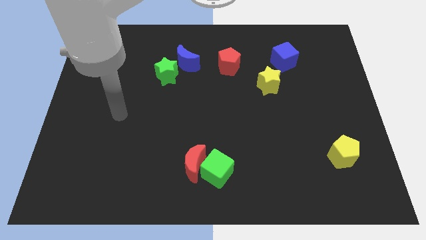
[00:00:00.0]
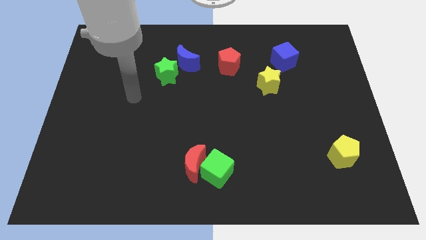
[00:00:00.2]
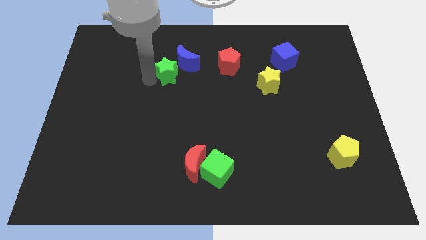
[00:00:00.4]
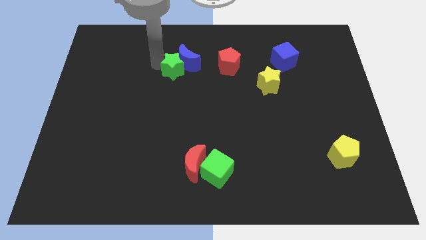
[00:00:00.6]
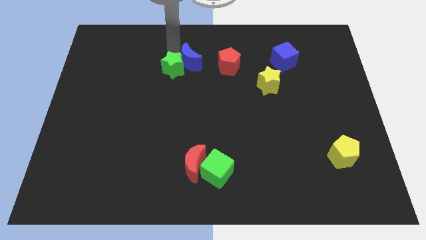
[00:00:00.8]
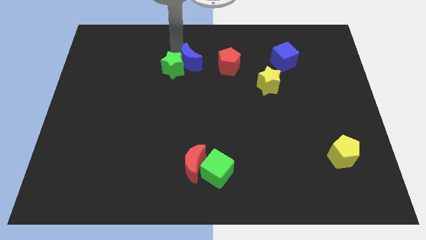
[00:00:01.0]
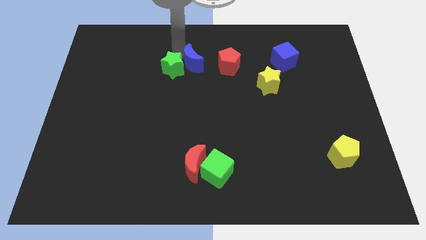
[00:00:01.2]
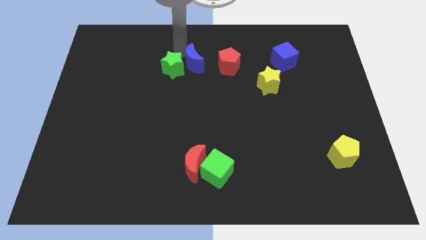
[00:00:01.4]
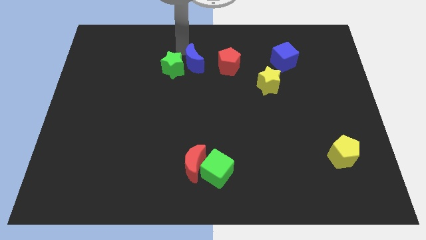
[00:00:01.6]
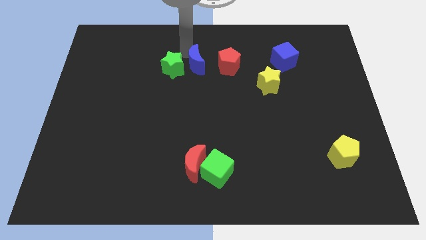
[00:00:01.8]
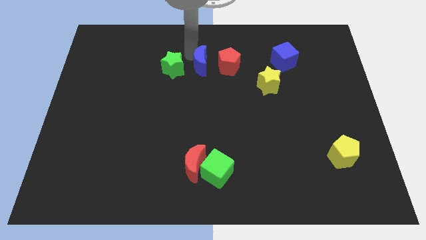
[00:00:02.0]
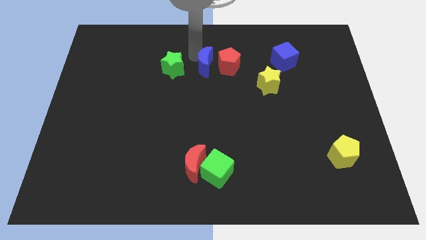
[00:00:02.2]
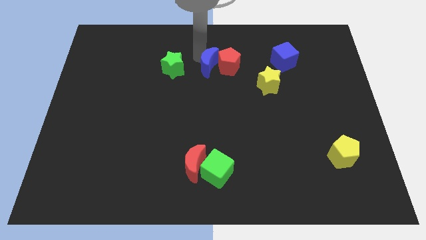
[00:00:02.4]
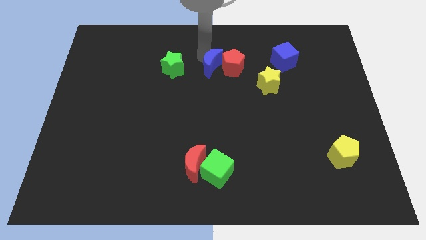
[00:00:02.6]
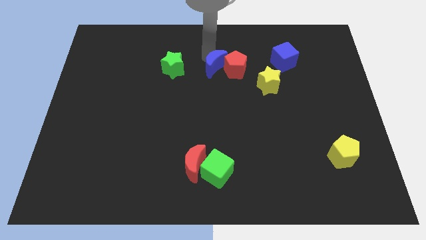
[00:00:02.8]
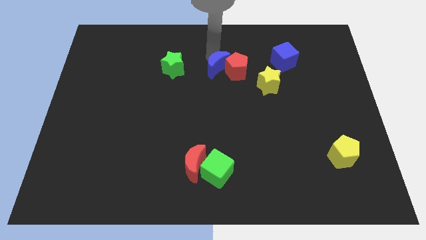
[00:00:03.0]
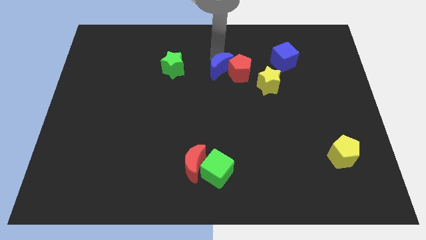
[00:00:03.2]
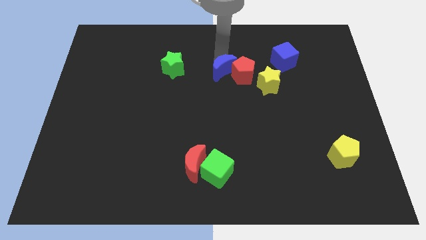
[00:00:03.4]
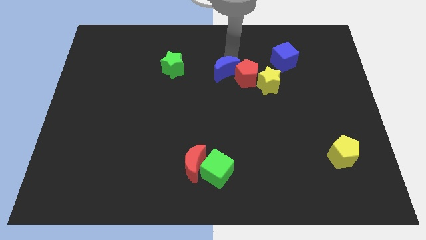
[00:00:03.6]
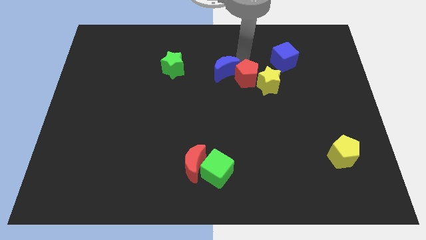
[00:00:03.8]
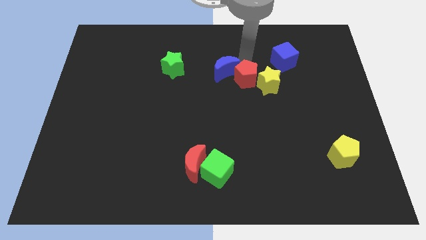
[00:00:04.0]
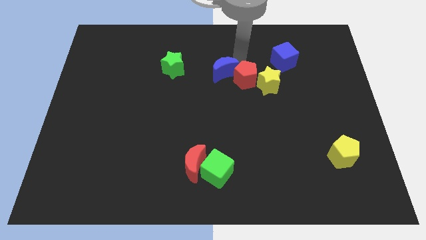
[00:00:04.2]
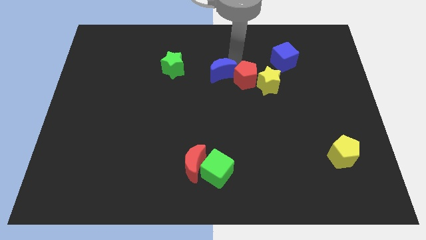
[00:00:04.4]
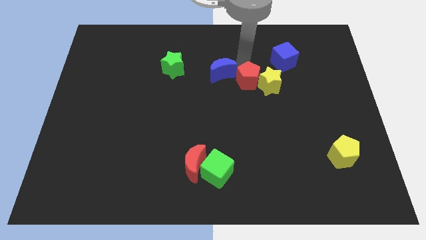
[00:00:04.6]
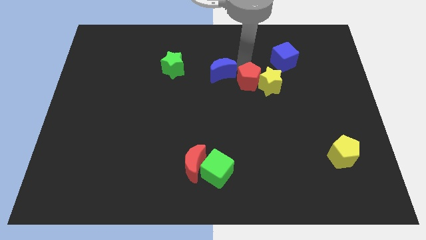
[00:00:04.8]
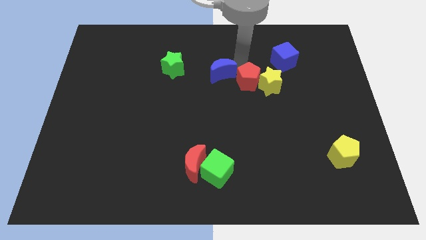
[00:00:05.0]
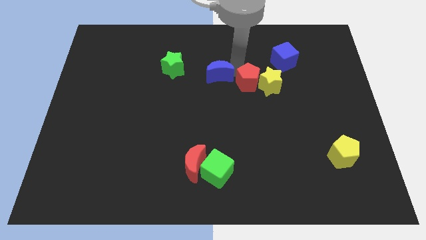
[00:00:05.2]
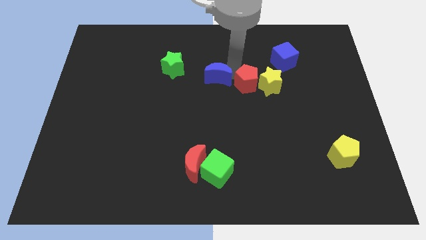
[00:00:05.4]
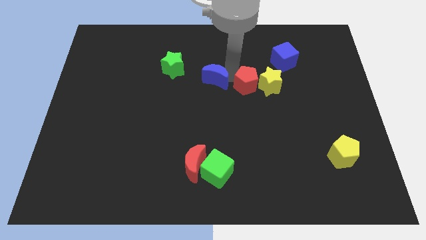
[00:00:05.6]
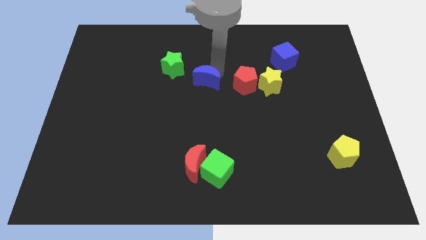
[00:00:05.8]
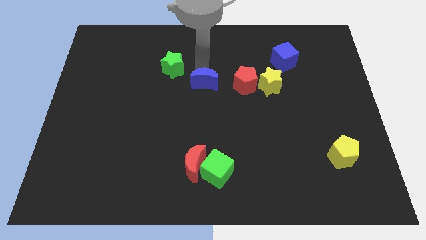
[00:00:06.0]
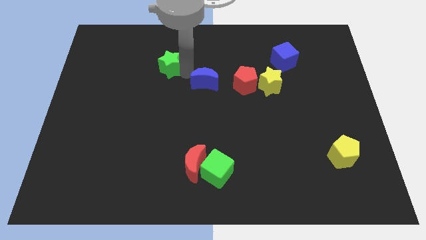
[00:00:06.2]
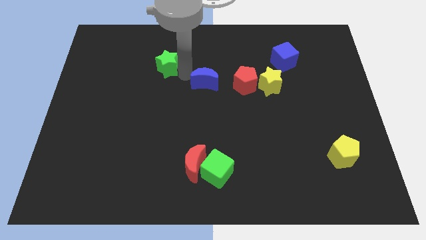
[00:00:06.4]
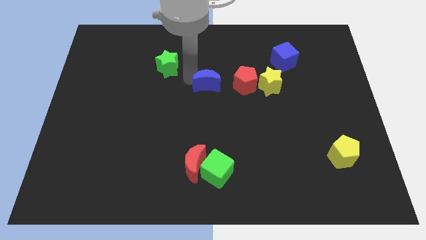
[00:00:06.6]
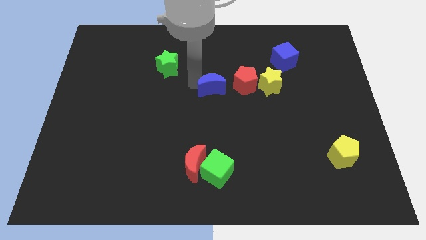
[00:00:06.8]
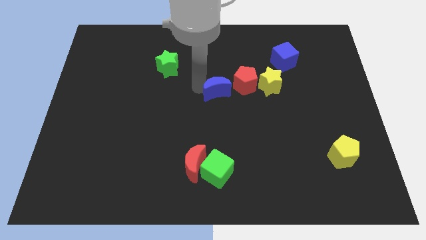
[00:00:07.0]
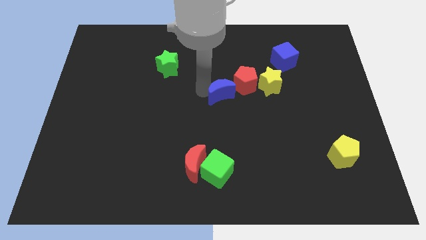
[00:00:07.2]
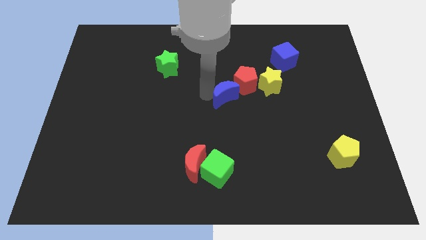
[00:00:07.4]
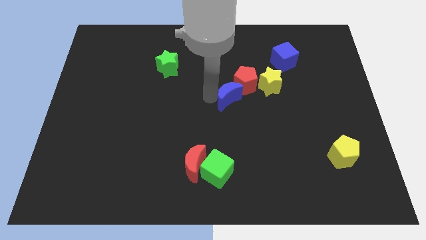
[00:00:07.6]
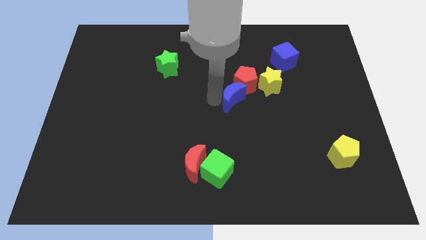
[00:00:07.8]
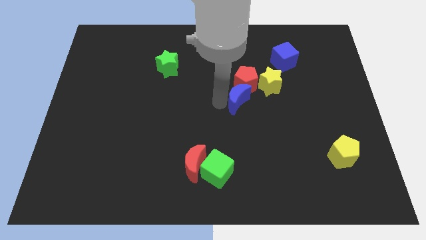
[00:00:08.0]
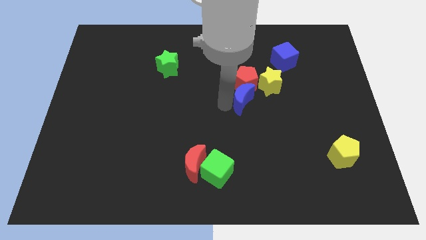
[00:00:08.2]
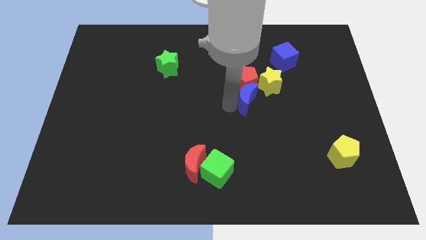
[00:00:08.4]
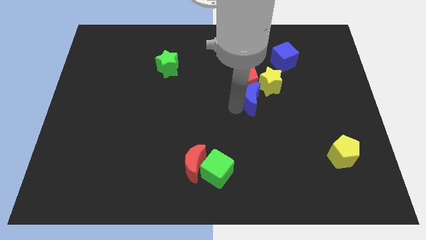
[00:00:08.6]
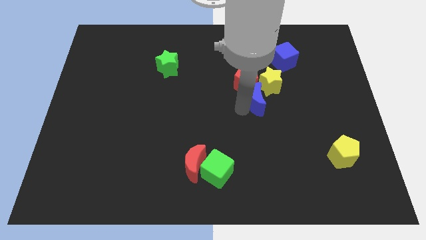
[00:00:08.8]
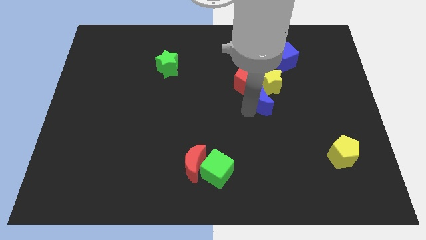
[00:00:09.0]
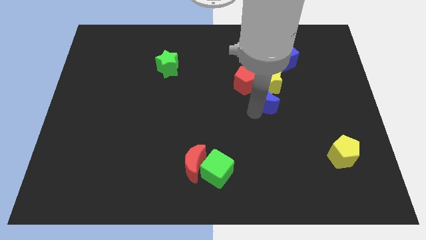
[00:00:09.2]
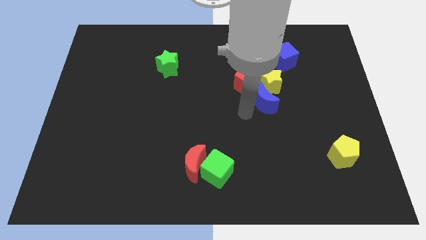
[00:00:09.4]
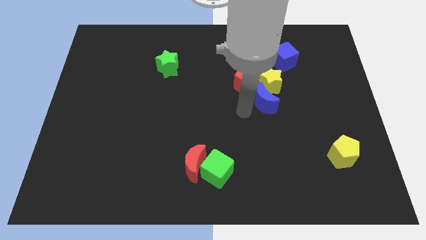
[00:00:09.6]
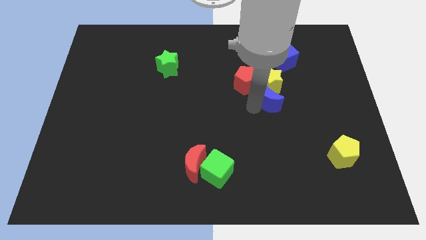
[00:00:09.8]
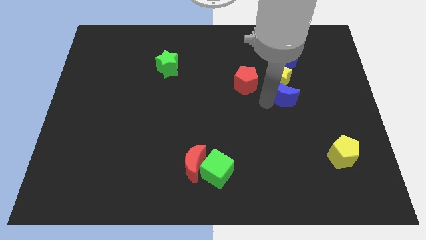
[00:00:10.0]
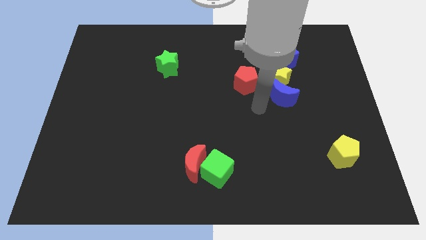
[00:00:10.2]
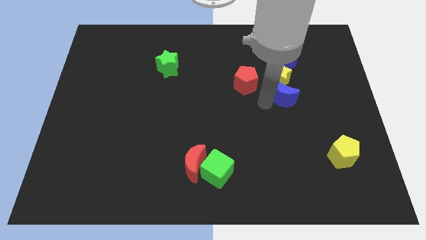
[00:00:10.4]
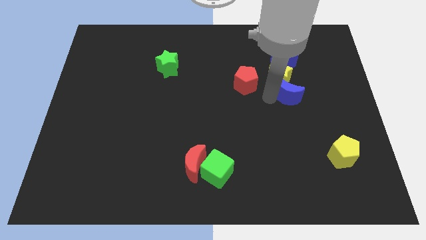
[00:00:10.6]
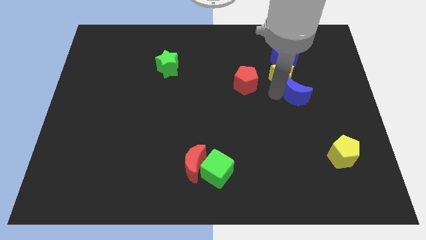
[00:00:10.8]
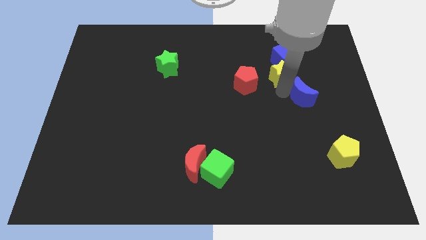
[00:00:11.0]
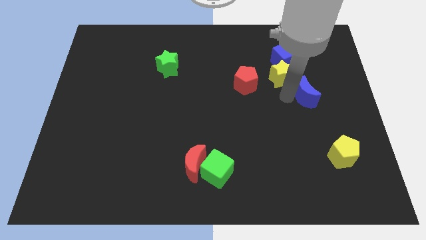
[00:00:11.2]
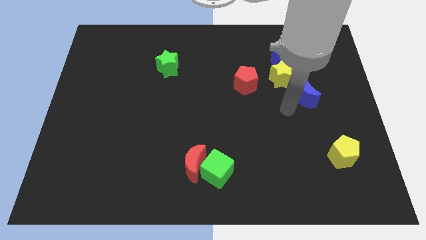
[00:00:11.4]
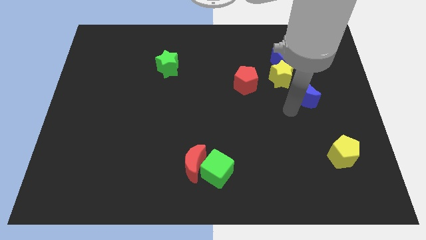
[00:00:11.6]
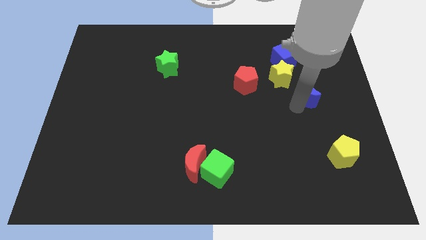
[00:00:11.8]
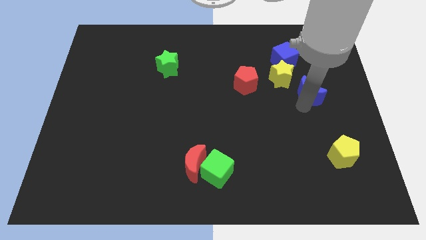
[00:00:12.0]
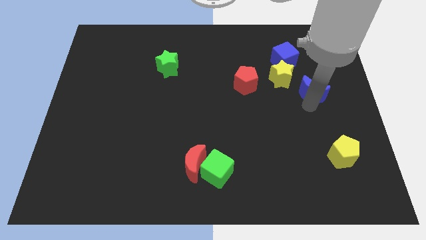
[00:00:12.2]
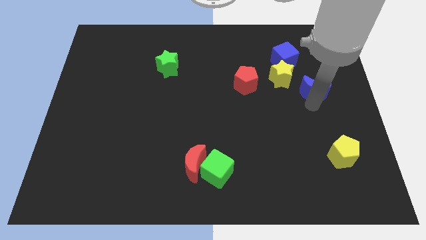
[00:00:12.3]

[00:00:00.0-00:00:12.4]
move the blue moon right of the yellow star
